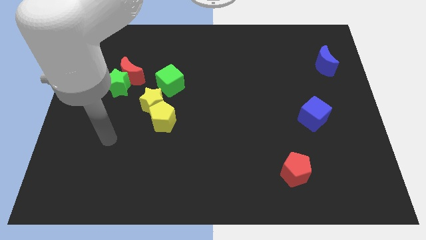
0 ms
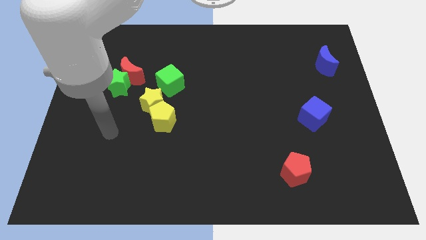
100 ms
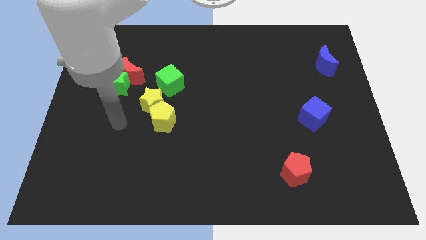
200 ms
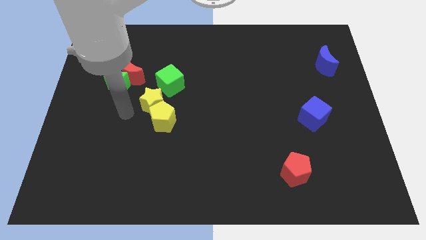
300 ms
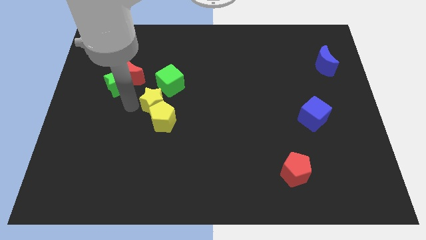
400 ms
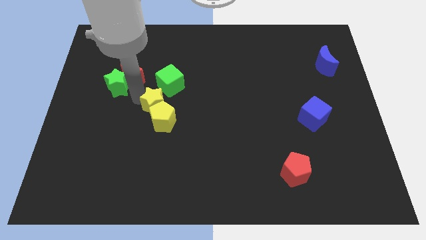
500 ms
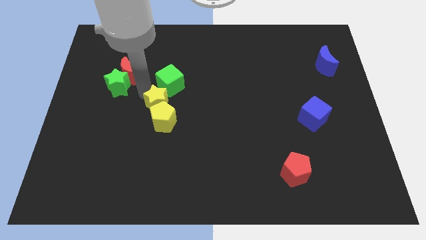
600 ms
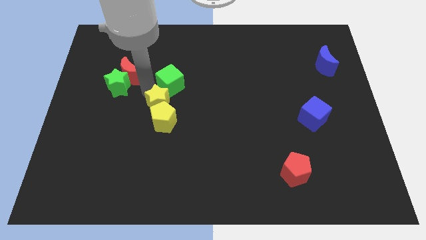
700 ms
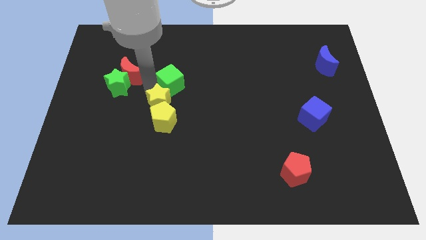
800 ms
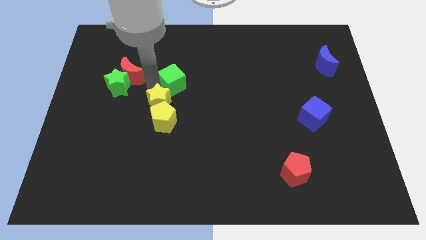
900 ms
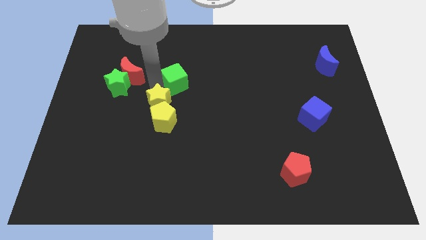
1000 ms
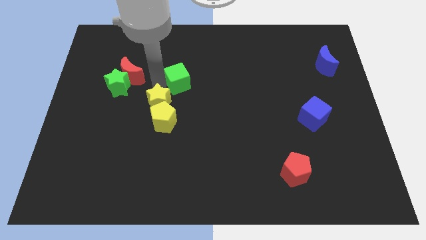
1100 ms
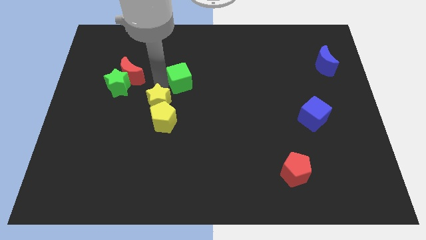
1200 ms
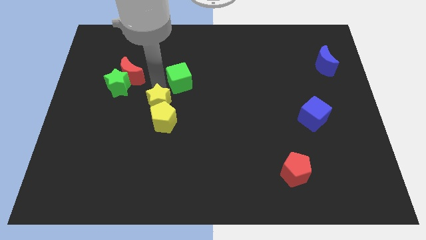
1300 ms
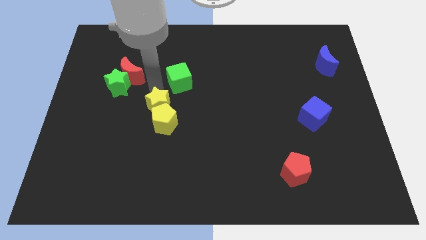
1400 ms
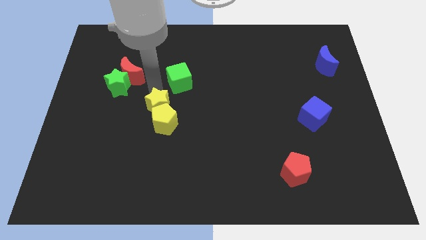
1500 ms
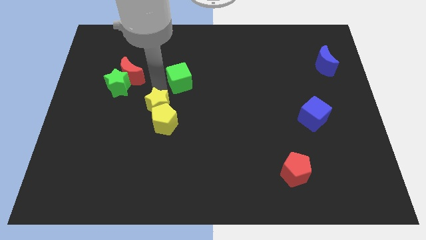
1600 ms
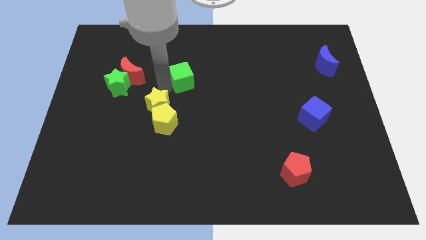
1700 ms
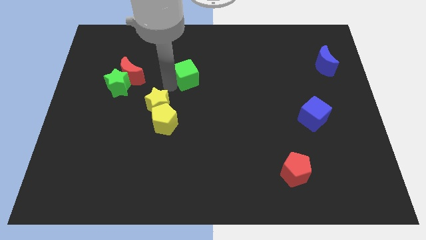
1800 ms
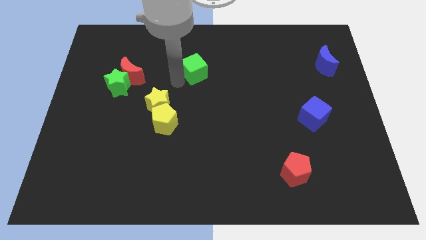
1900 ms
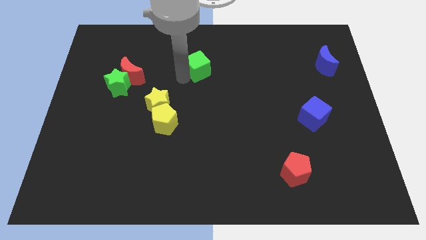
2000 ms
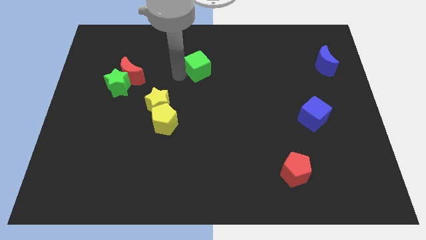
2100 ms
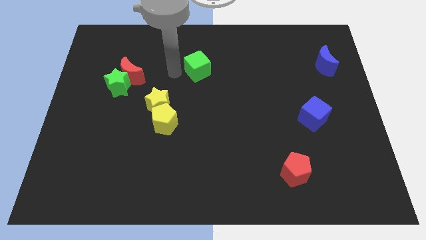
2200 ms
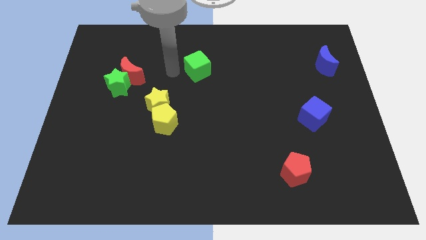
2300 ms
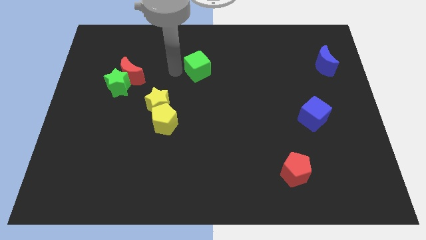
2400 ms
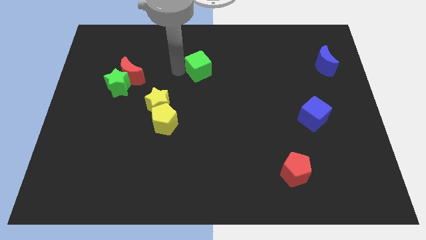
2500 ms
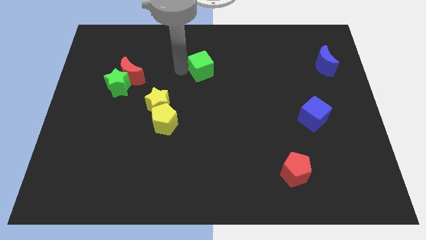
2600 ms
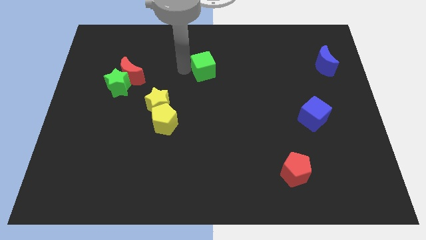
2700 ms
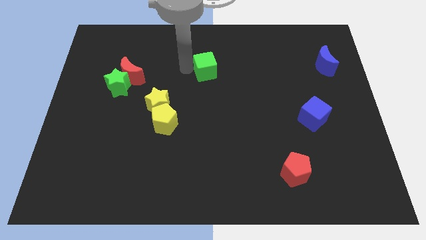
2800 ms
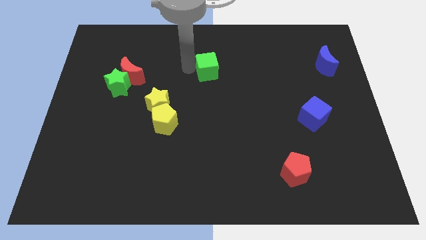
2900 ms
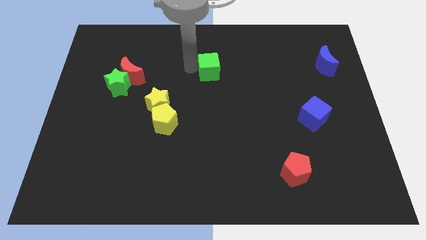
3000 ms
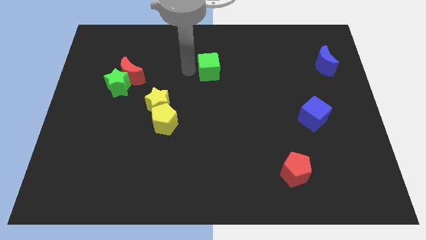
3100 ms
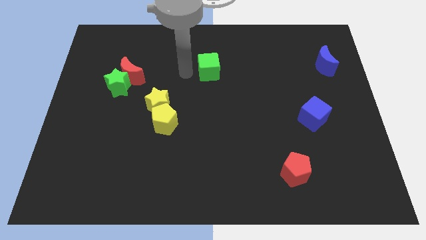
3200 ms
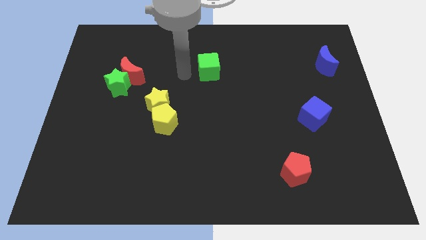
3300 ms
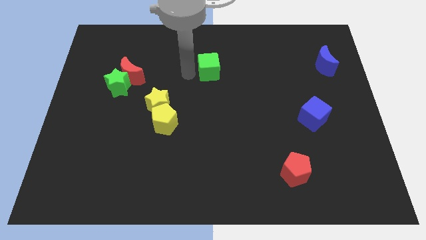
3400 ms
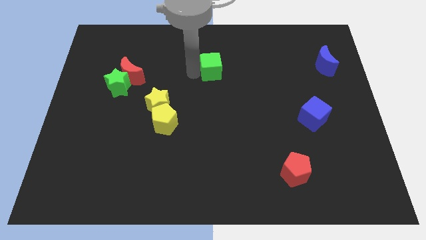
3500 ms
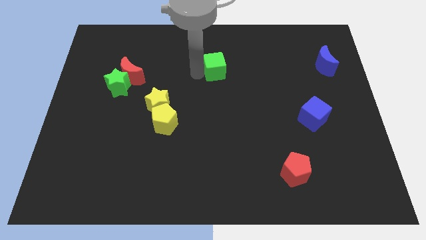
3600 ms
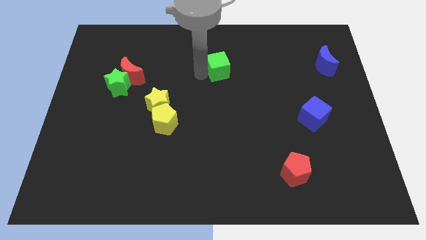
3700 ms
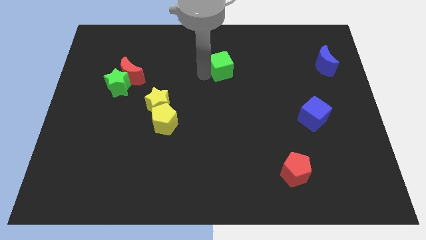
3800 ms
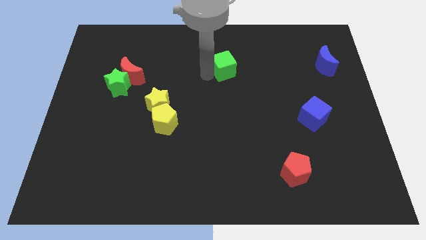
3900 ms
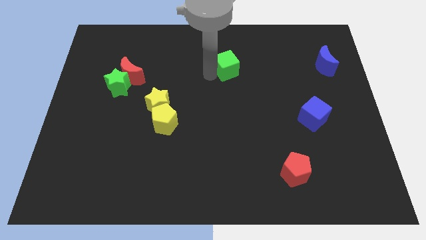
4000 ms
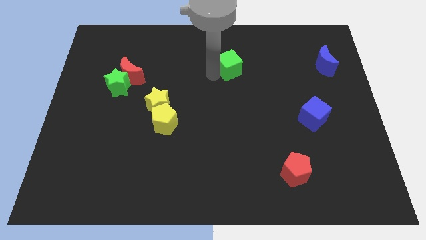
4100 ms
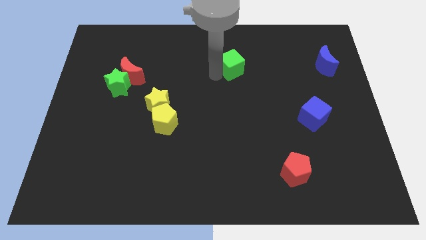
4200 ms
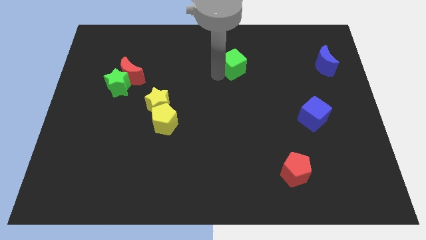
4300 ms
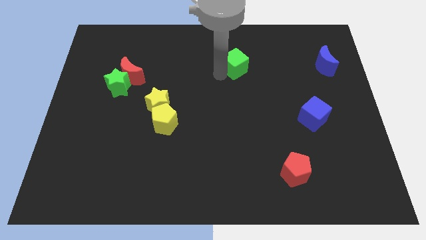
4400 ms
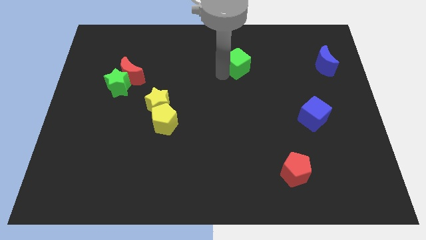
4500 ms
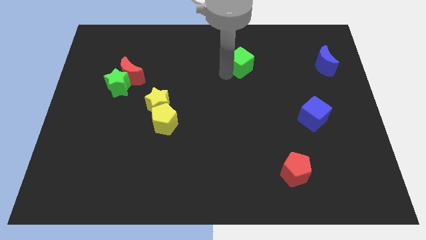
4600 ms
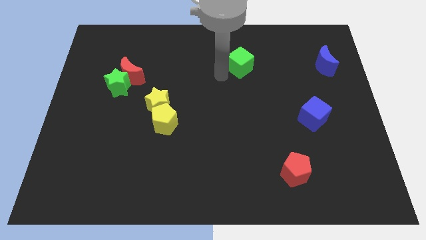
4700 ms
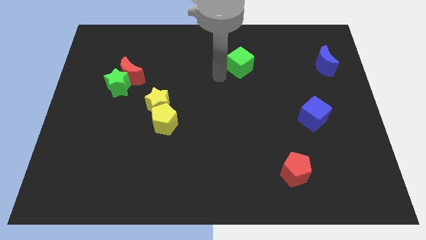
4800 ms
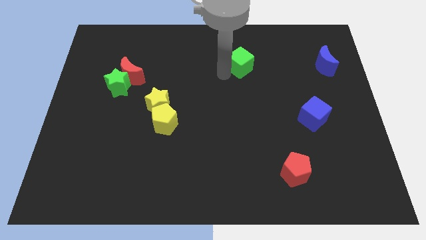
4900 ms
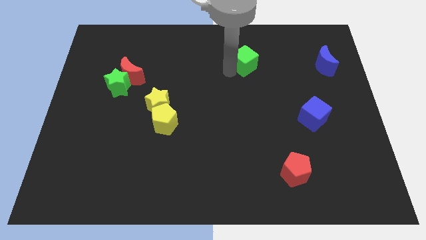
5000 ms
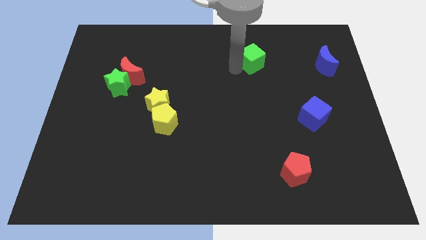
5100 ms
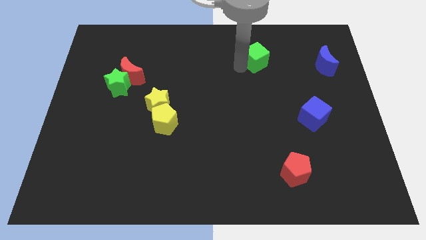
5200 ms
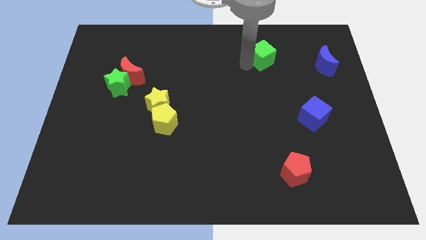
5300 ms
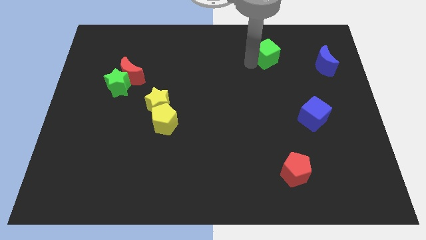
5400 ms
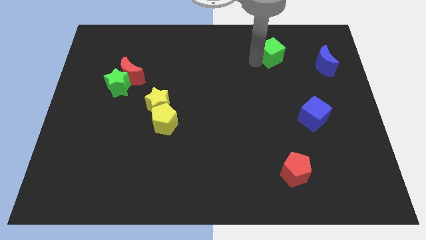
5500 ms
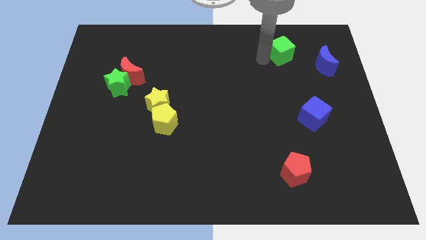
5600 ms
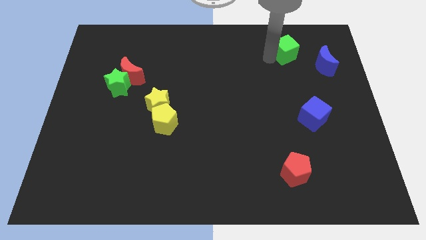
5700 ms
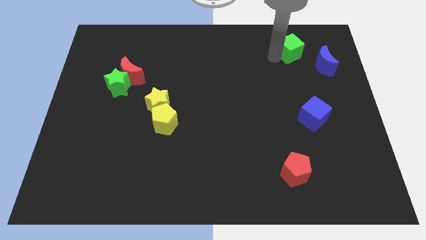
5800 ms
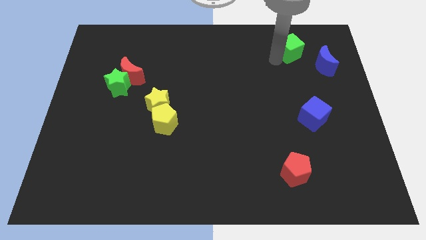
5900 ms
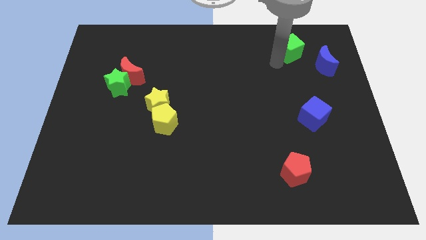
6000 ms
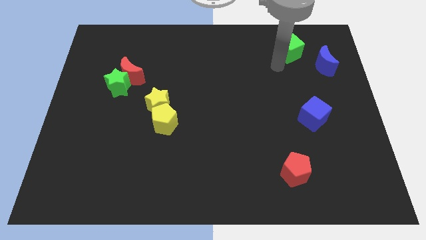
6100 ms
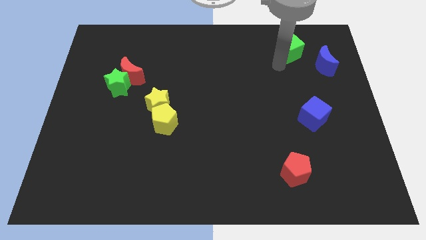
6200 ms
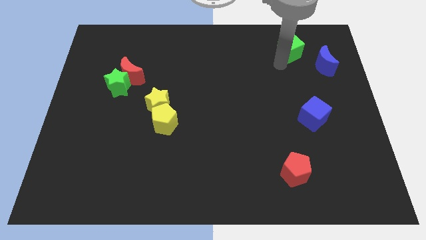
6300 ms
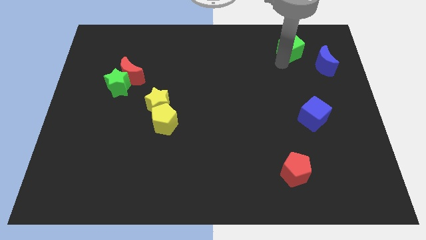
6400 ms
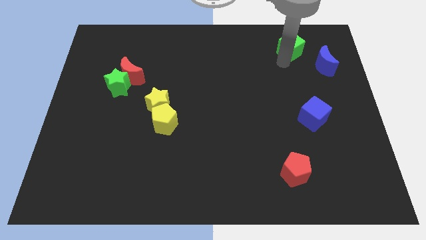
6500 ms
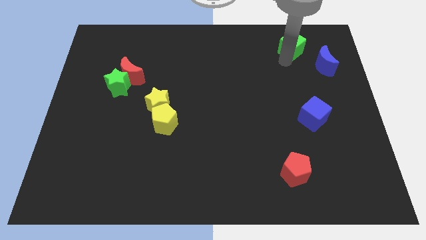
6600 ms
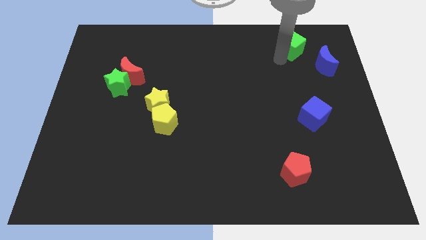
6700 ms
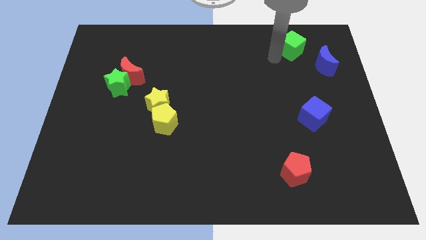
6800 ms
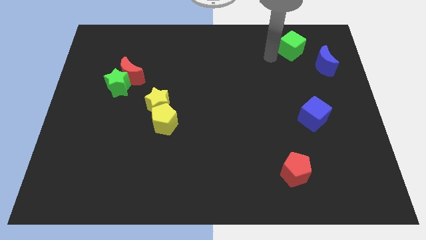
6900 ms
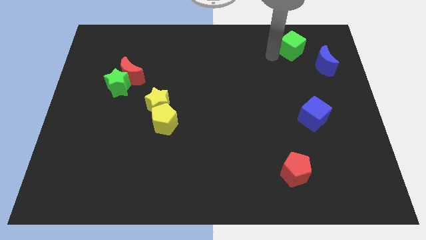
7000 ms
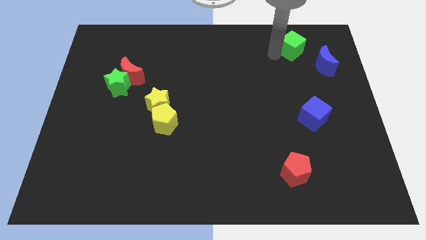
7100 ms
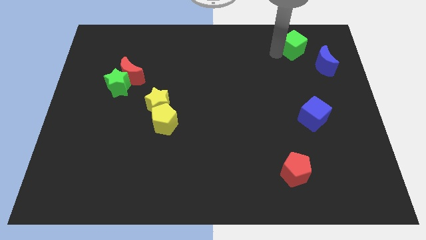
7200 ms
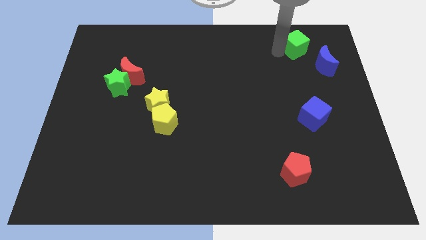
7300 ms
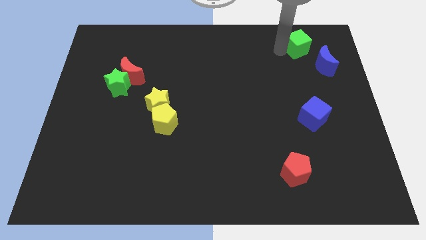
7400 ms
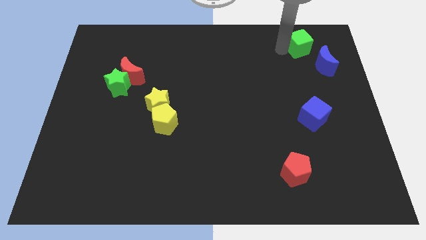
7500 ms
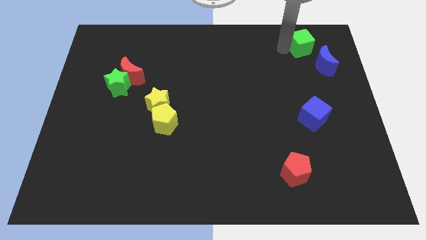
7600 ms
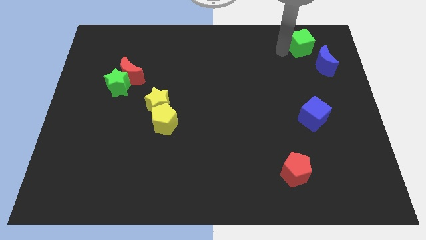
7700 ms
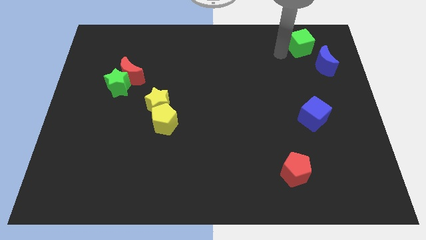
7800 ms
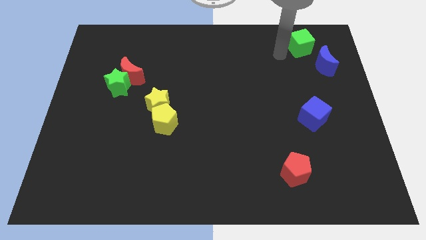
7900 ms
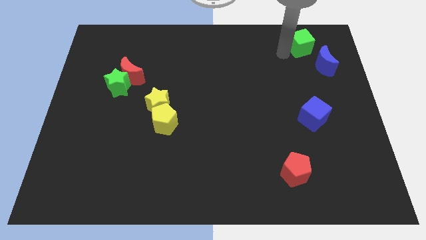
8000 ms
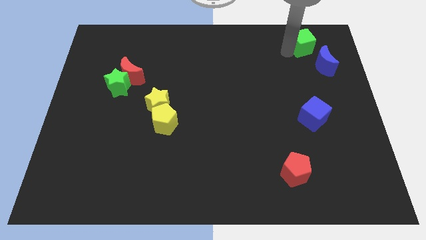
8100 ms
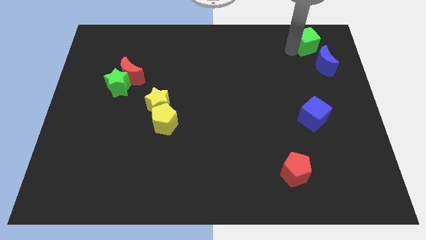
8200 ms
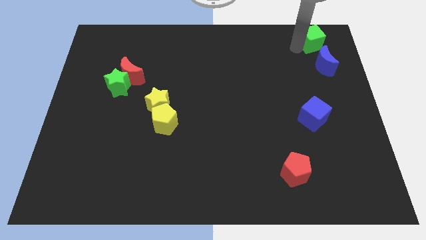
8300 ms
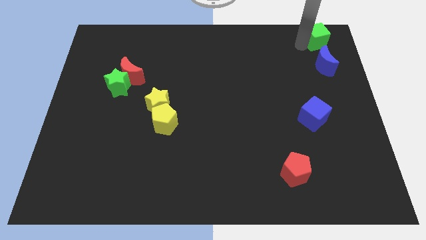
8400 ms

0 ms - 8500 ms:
move the green cube to the upper right corner
